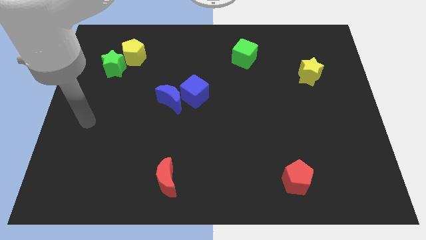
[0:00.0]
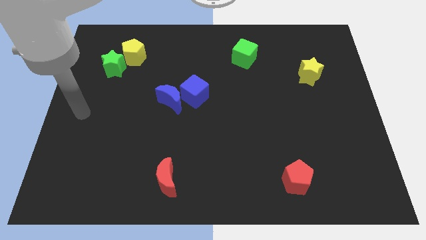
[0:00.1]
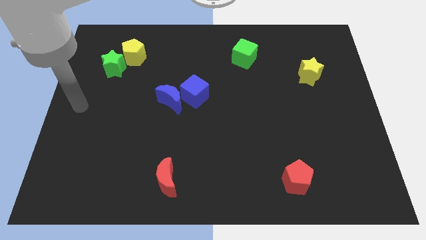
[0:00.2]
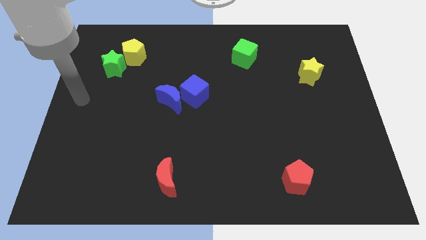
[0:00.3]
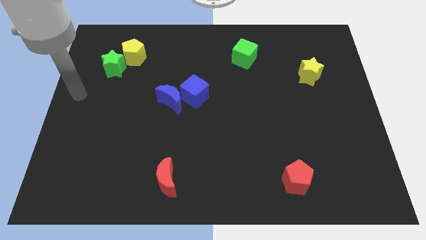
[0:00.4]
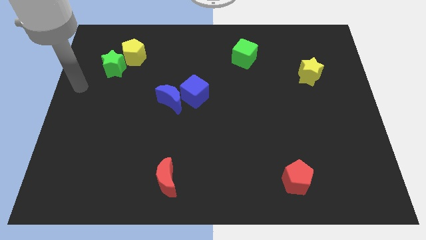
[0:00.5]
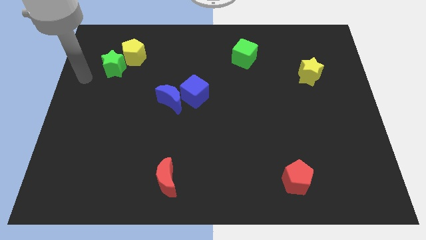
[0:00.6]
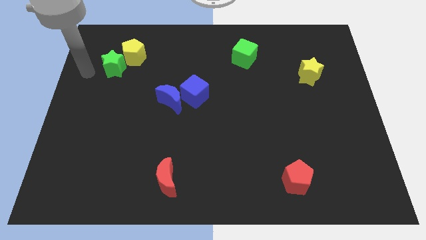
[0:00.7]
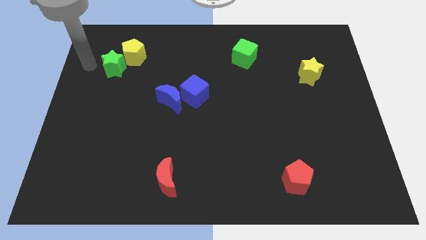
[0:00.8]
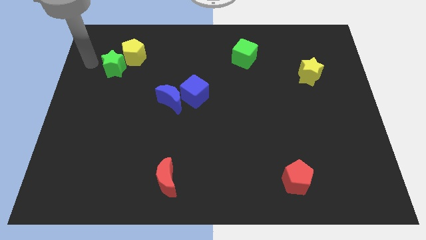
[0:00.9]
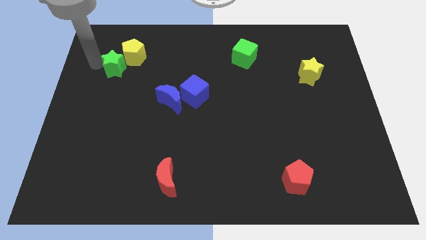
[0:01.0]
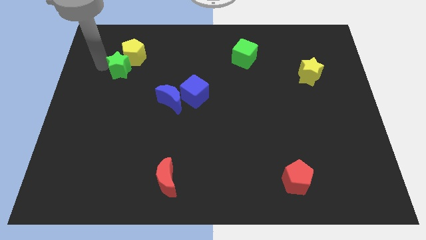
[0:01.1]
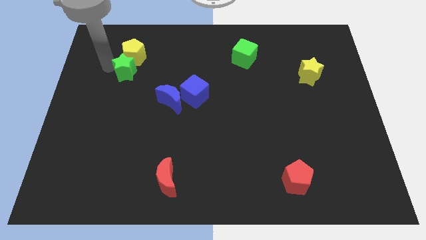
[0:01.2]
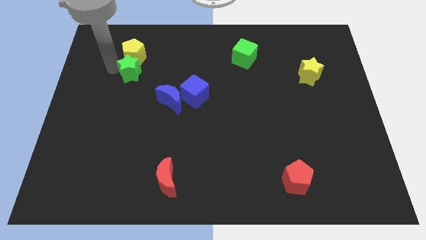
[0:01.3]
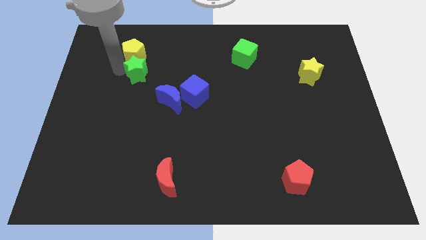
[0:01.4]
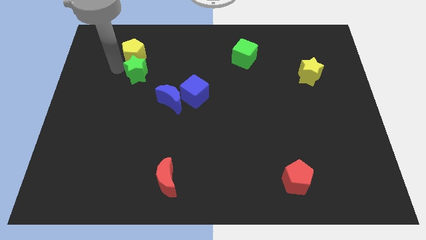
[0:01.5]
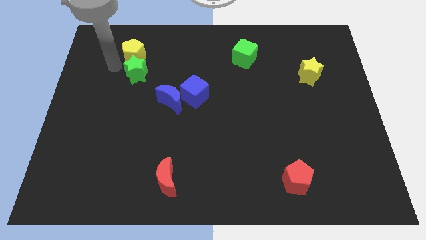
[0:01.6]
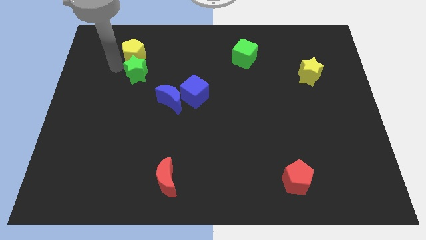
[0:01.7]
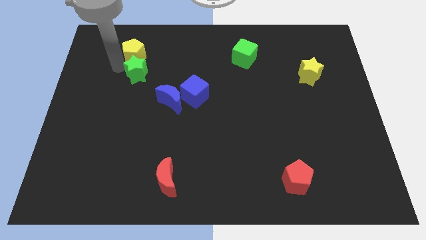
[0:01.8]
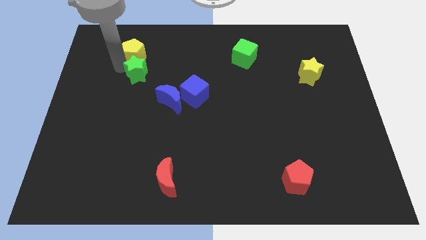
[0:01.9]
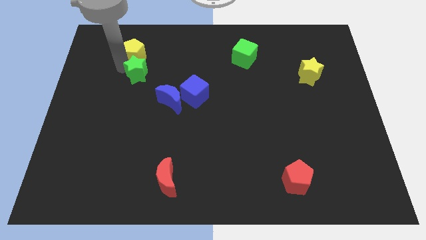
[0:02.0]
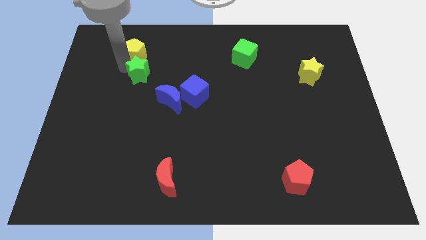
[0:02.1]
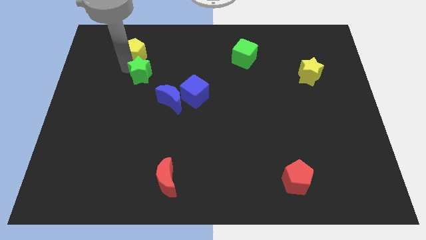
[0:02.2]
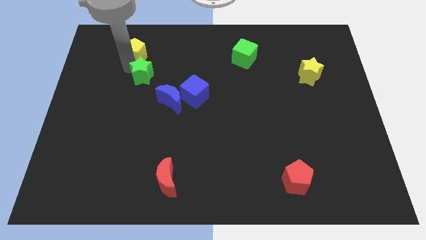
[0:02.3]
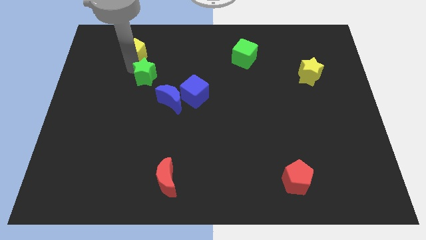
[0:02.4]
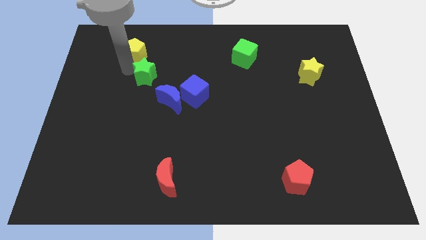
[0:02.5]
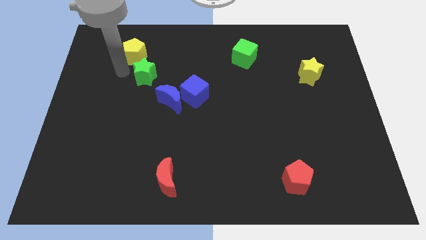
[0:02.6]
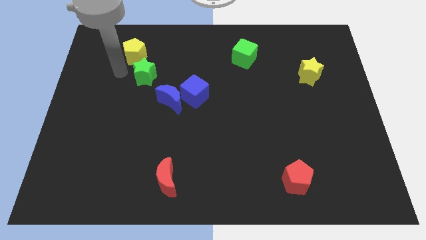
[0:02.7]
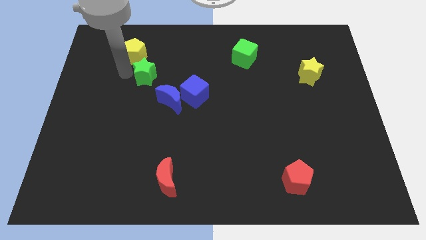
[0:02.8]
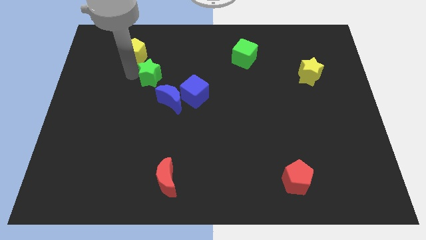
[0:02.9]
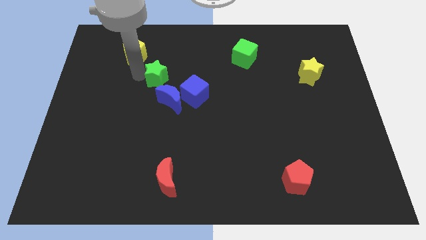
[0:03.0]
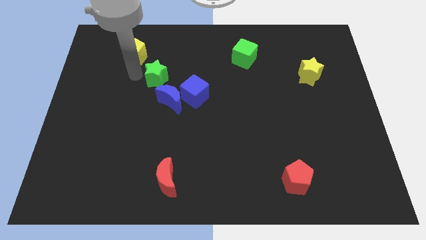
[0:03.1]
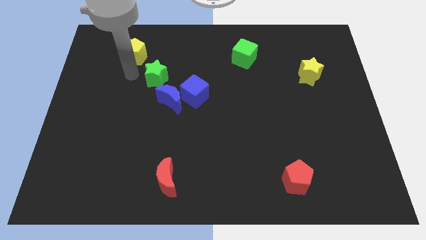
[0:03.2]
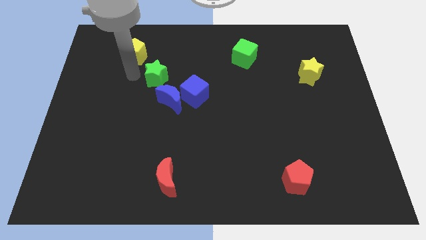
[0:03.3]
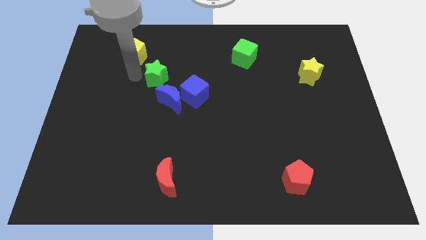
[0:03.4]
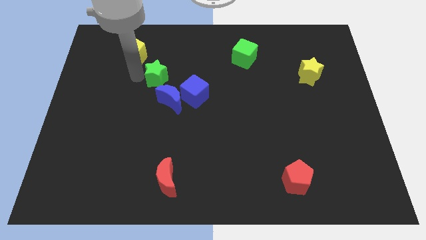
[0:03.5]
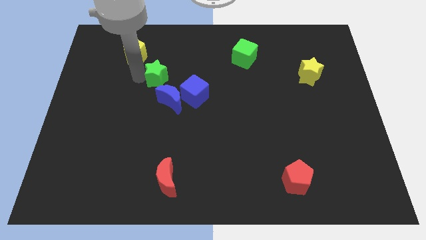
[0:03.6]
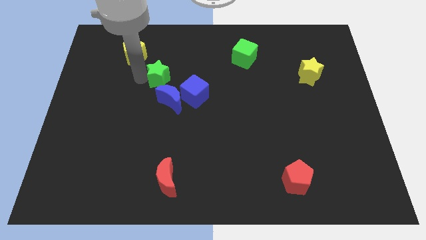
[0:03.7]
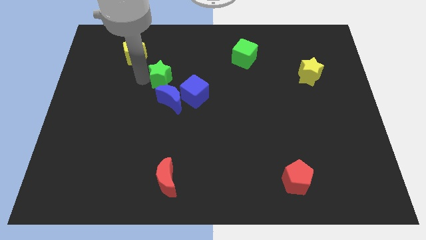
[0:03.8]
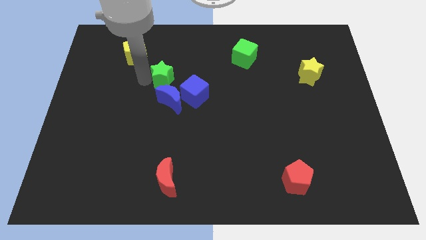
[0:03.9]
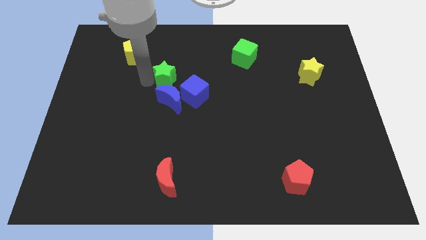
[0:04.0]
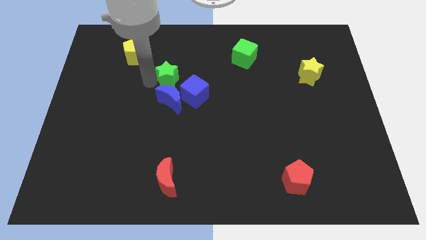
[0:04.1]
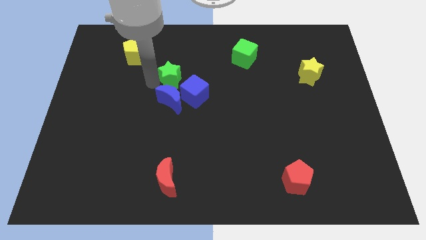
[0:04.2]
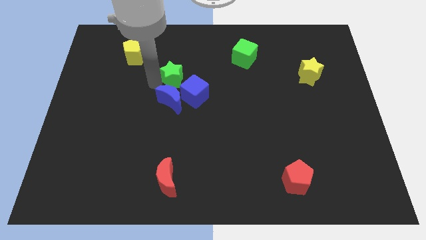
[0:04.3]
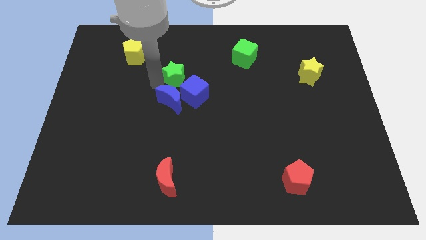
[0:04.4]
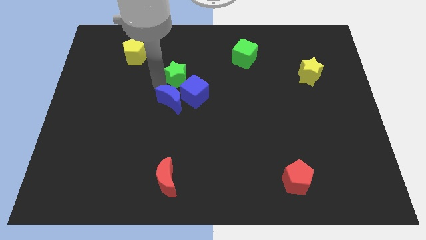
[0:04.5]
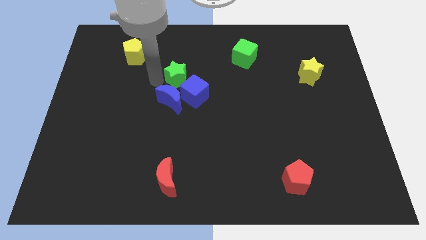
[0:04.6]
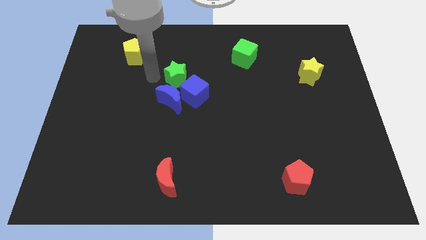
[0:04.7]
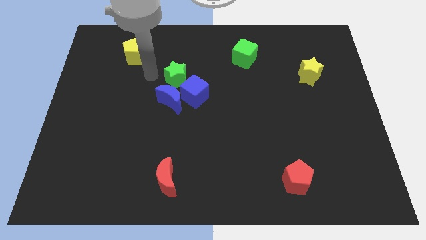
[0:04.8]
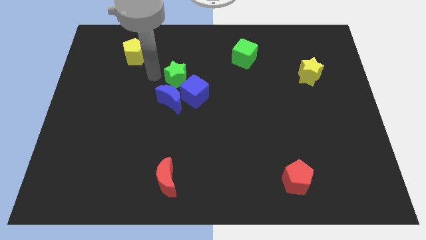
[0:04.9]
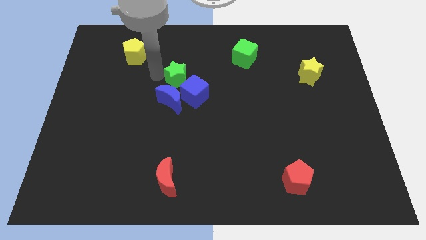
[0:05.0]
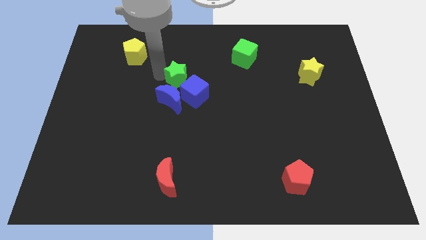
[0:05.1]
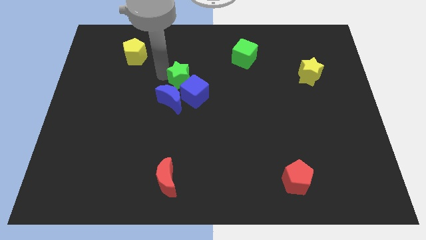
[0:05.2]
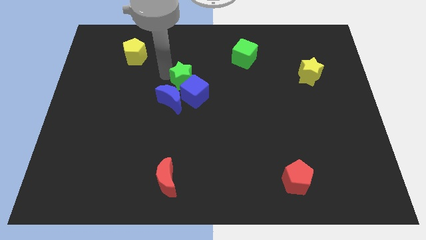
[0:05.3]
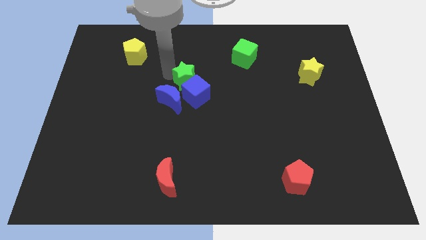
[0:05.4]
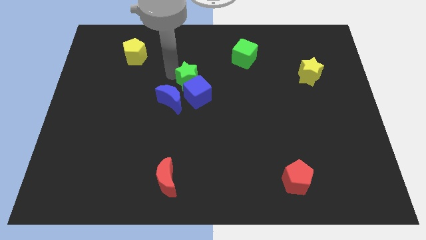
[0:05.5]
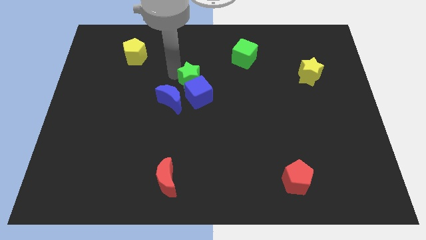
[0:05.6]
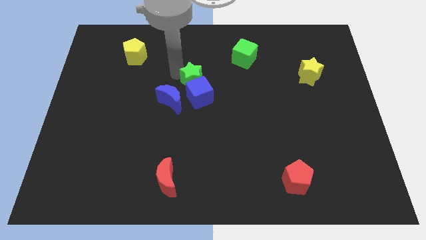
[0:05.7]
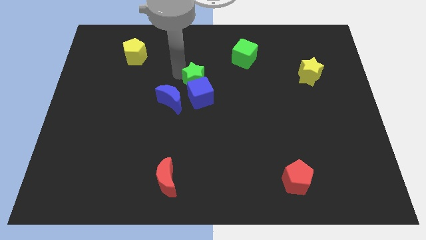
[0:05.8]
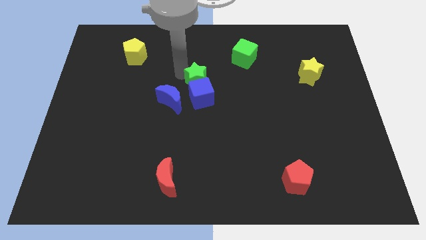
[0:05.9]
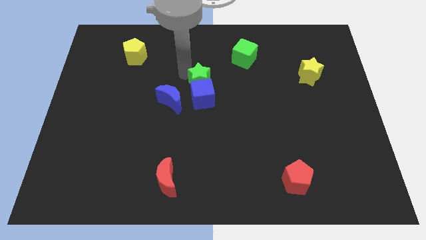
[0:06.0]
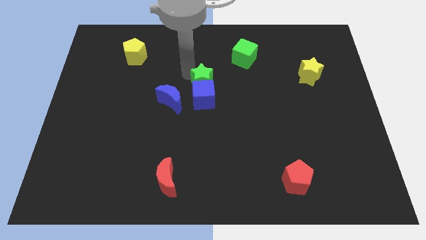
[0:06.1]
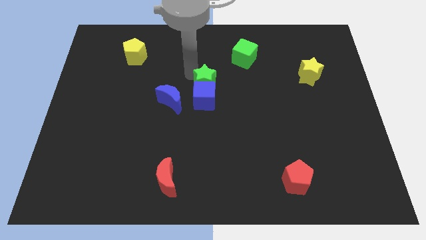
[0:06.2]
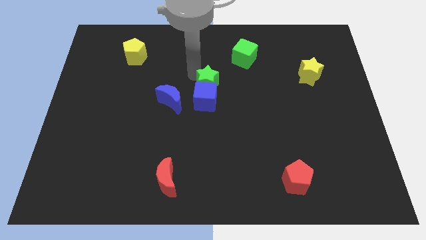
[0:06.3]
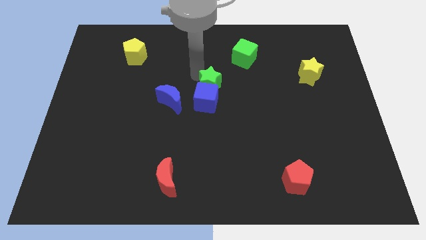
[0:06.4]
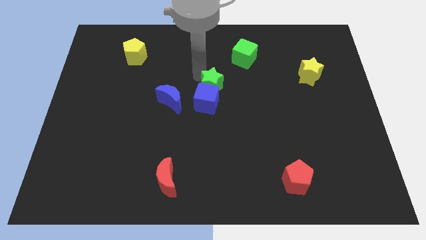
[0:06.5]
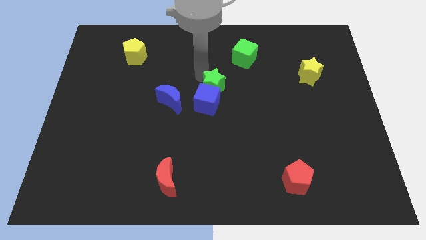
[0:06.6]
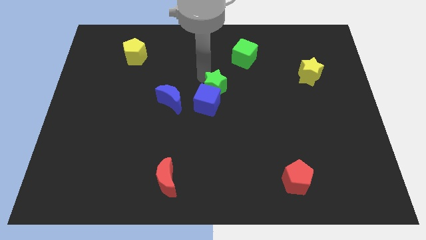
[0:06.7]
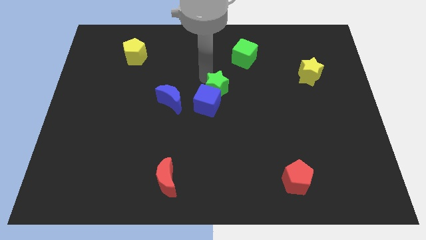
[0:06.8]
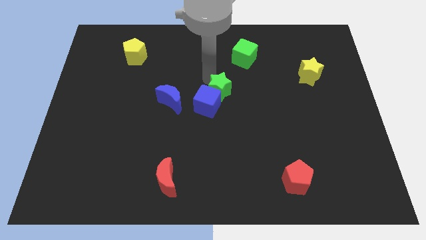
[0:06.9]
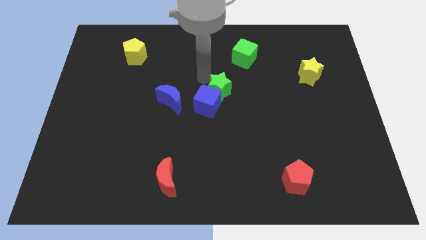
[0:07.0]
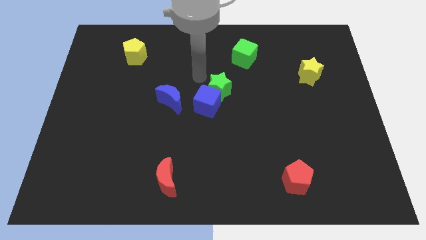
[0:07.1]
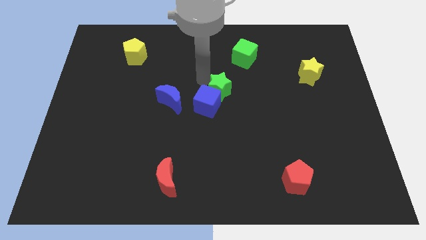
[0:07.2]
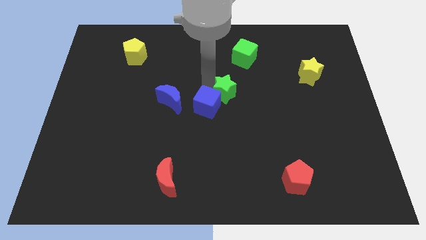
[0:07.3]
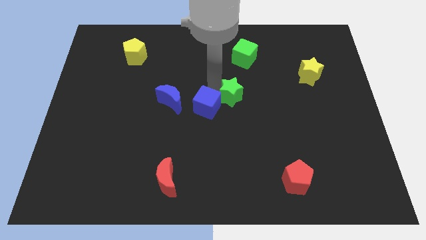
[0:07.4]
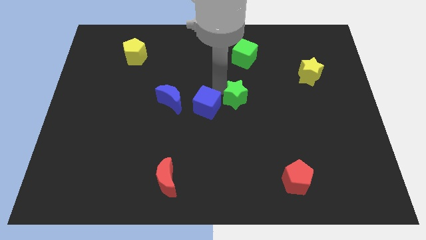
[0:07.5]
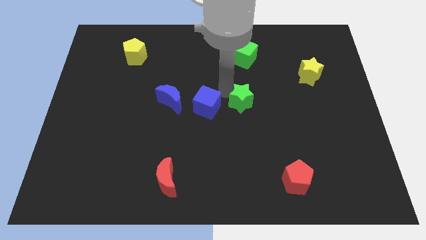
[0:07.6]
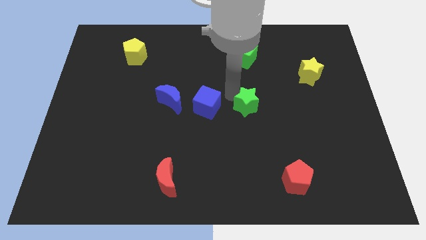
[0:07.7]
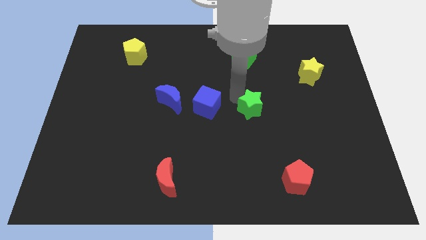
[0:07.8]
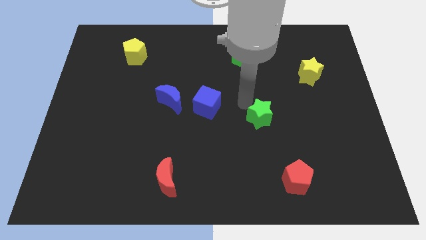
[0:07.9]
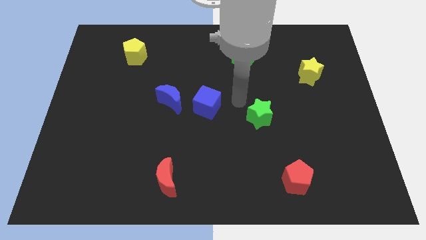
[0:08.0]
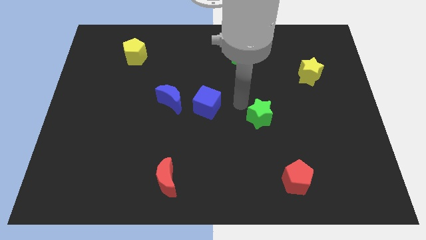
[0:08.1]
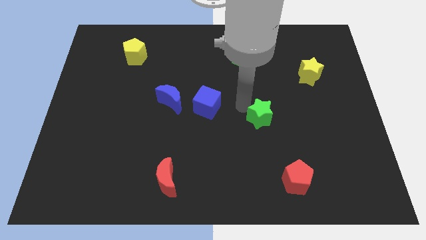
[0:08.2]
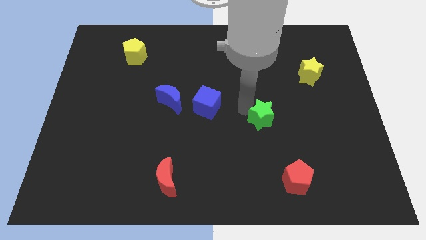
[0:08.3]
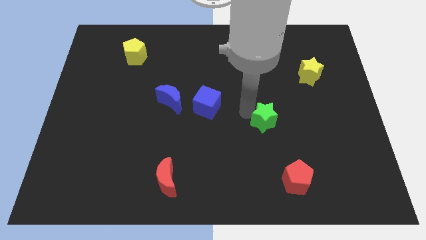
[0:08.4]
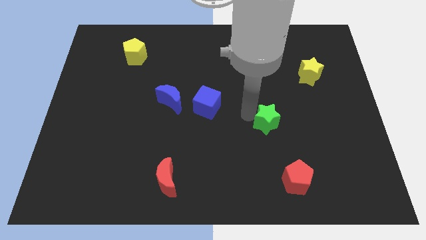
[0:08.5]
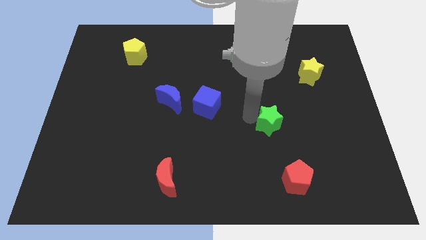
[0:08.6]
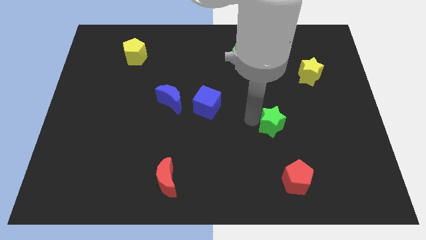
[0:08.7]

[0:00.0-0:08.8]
put the green star to the top side of the red pentagon
